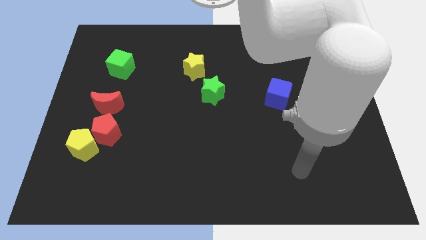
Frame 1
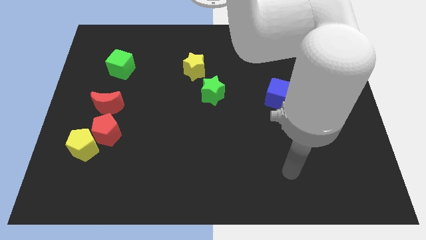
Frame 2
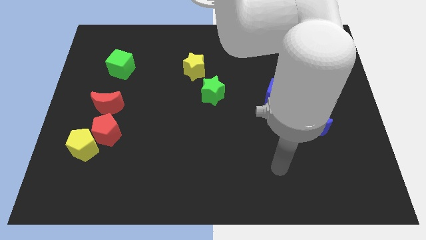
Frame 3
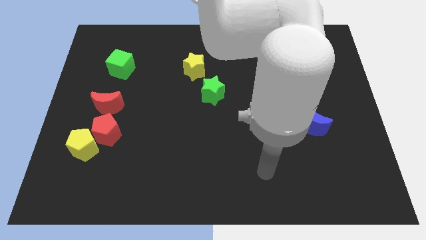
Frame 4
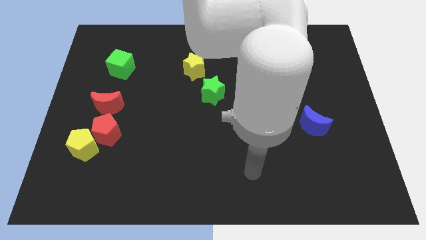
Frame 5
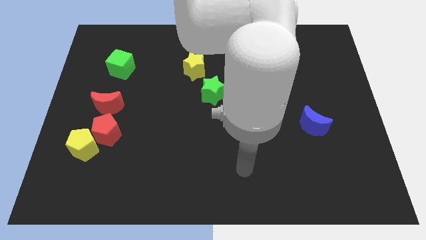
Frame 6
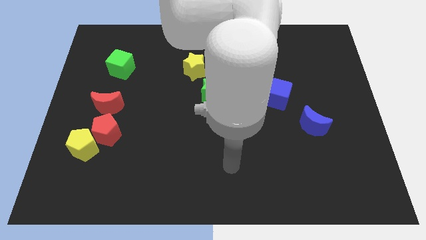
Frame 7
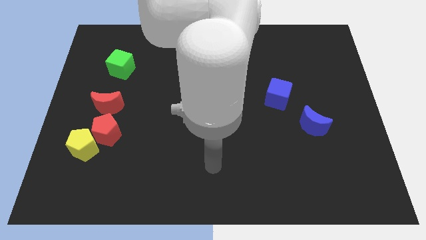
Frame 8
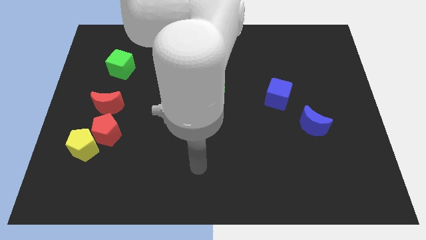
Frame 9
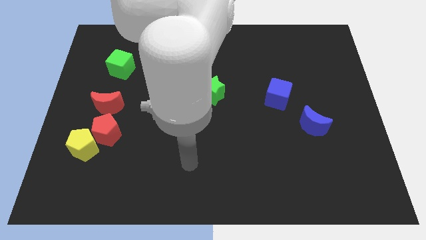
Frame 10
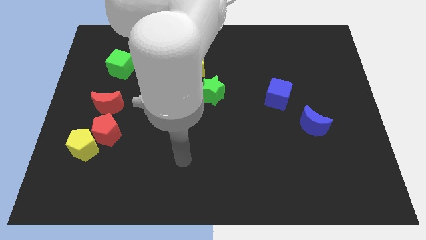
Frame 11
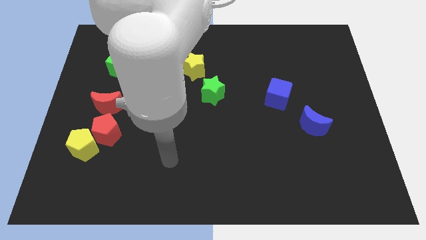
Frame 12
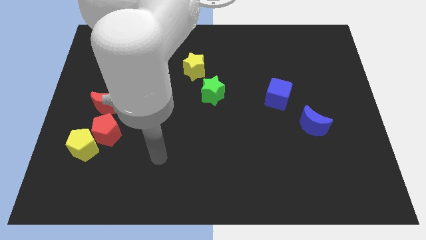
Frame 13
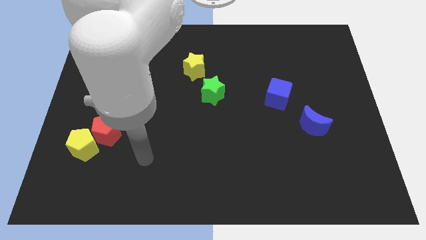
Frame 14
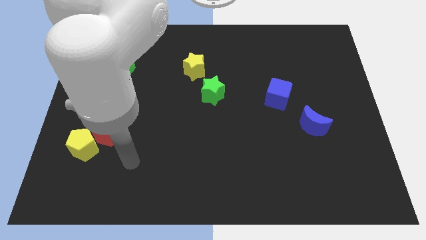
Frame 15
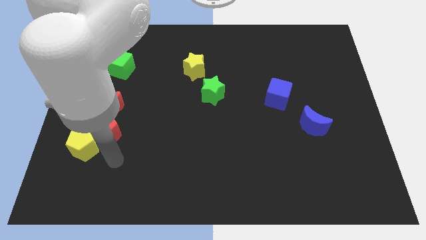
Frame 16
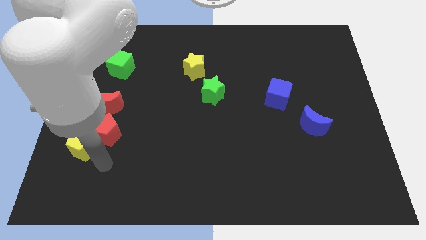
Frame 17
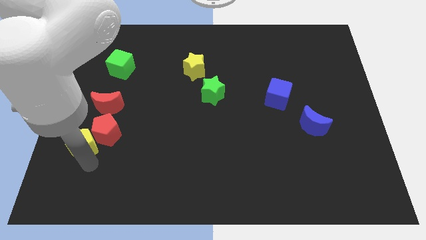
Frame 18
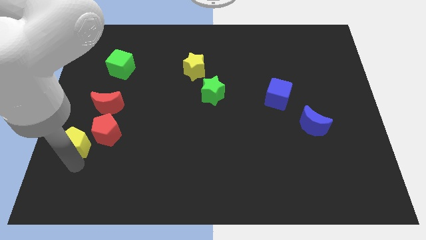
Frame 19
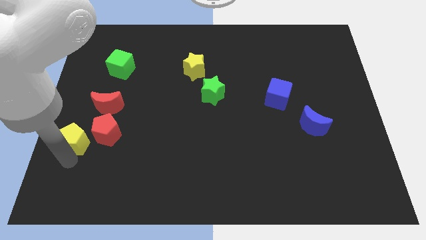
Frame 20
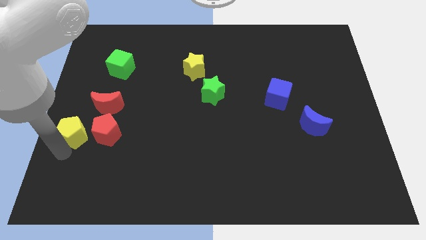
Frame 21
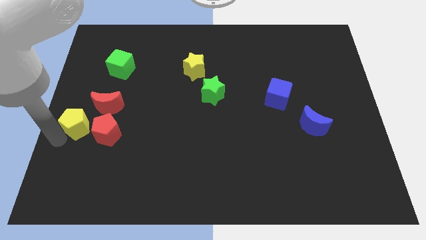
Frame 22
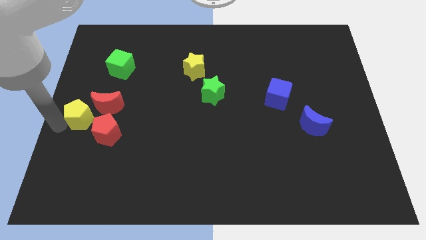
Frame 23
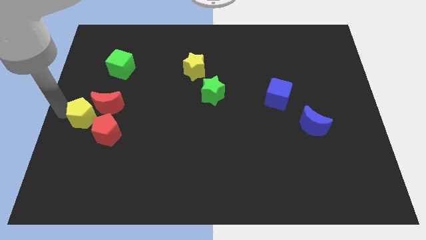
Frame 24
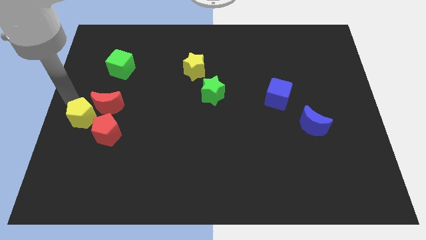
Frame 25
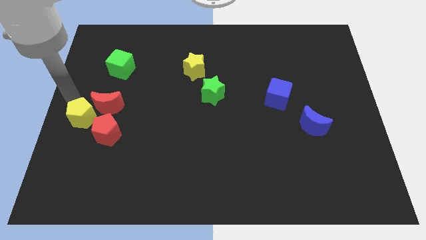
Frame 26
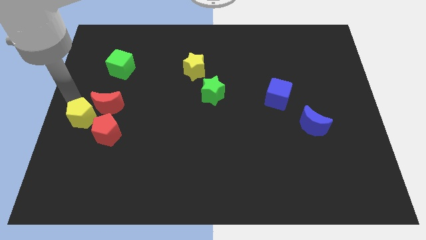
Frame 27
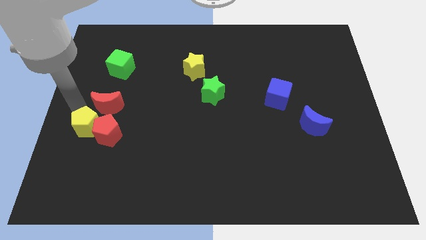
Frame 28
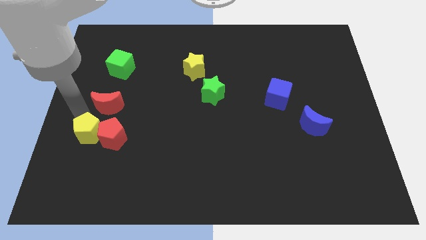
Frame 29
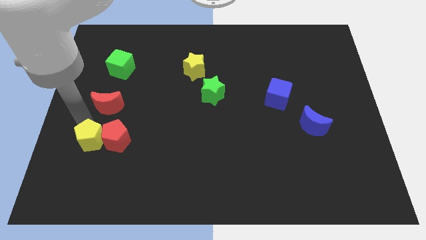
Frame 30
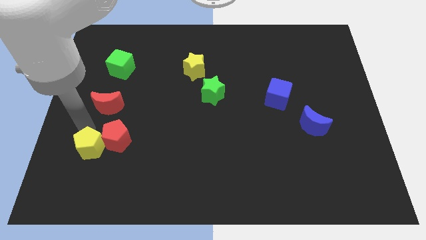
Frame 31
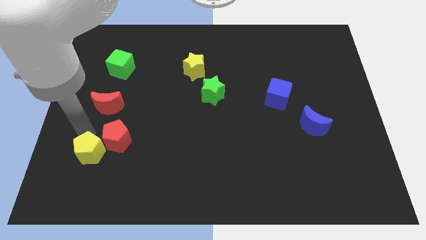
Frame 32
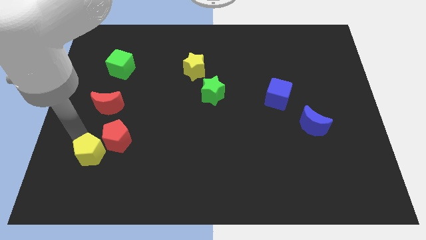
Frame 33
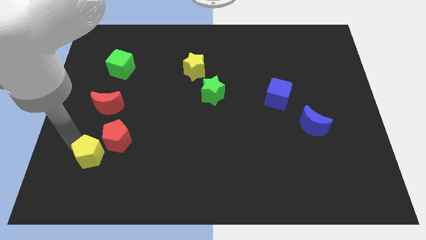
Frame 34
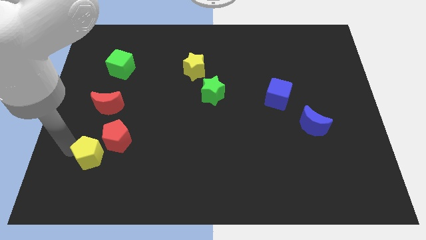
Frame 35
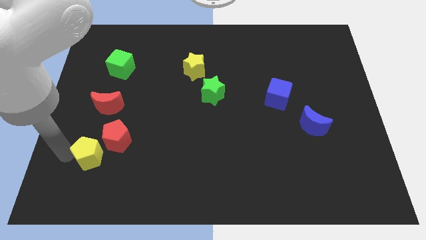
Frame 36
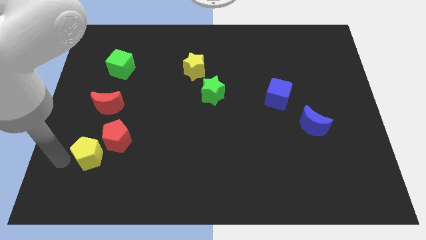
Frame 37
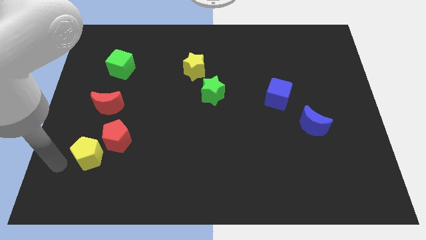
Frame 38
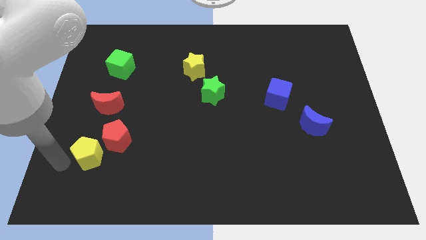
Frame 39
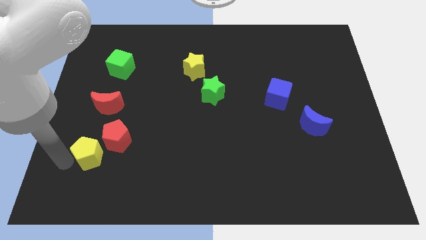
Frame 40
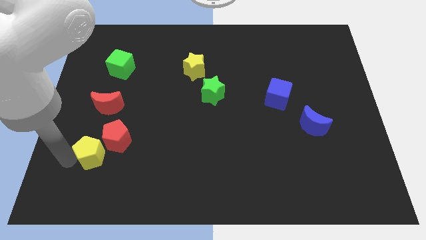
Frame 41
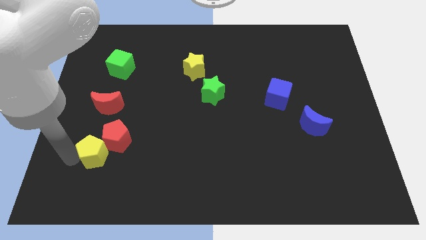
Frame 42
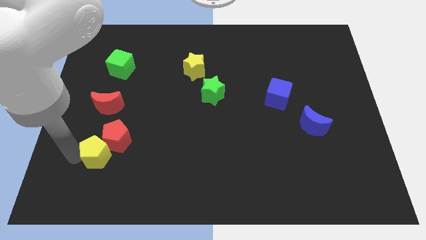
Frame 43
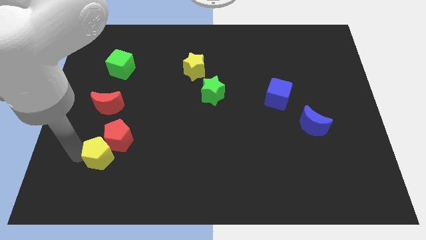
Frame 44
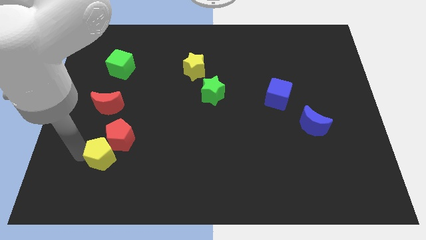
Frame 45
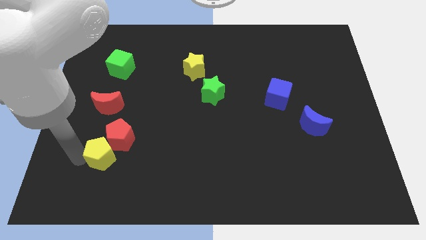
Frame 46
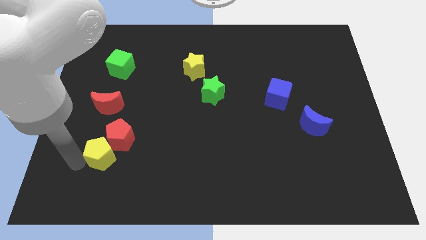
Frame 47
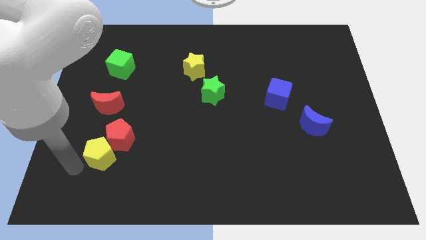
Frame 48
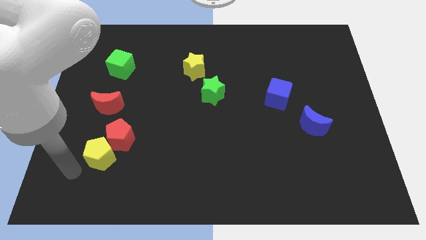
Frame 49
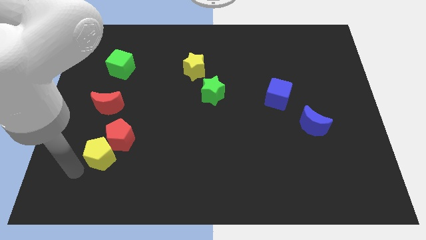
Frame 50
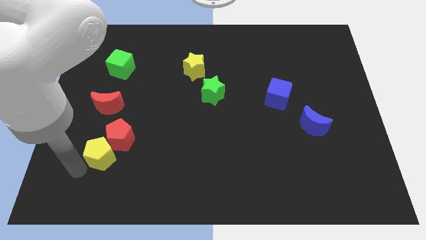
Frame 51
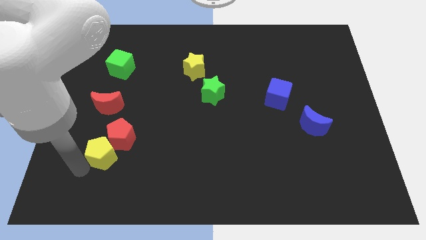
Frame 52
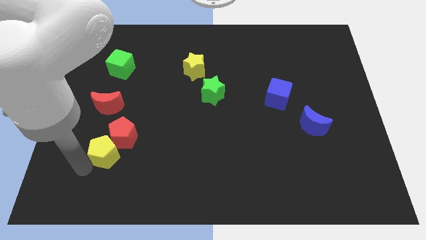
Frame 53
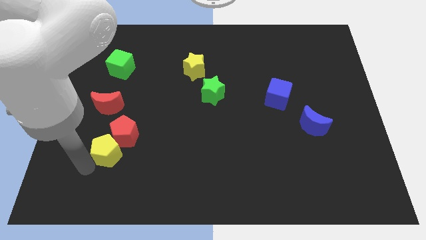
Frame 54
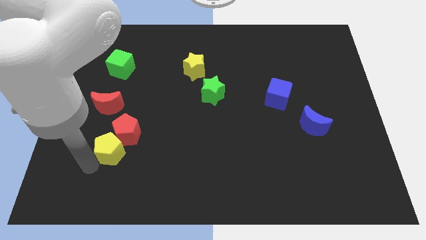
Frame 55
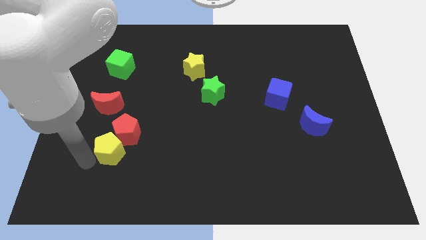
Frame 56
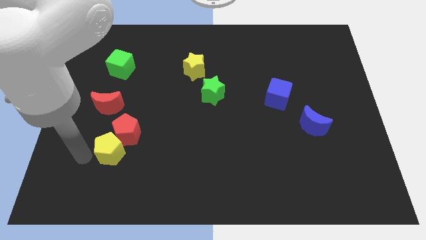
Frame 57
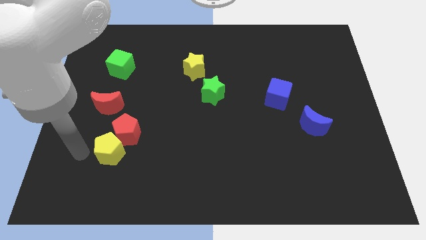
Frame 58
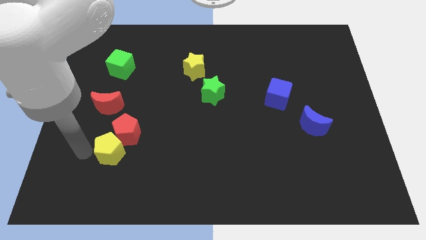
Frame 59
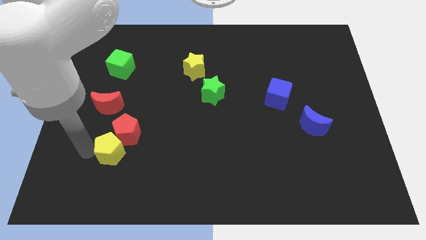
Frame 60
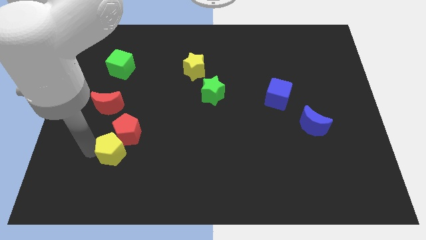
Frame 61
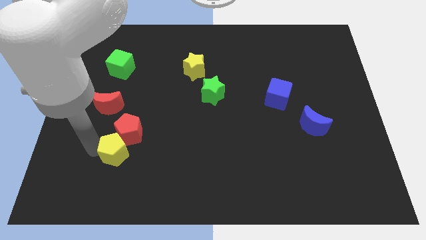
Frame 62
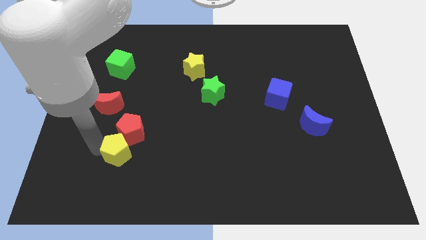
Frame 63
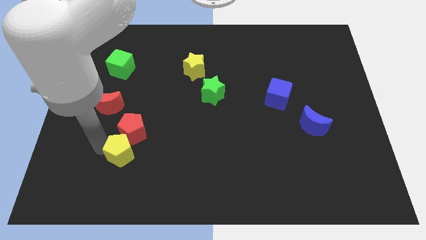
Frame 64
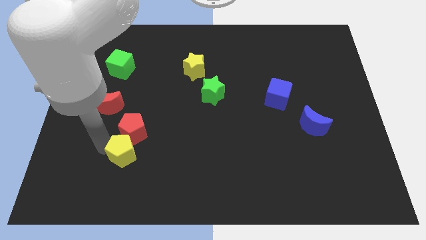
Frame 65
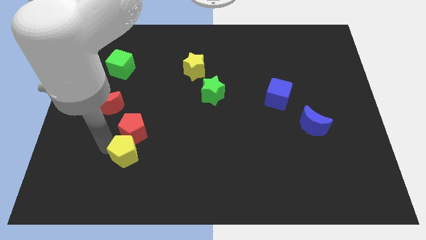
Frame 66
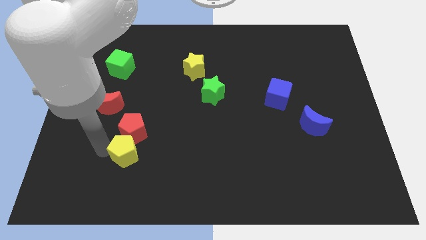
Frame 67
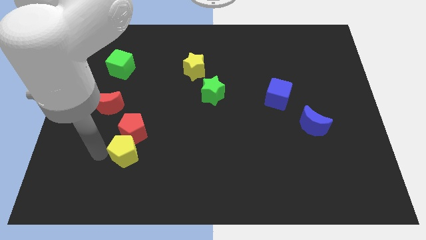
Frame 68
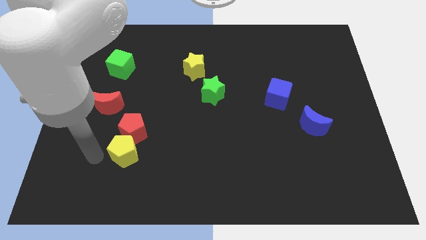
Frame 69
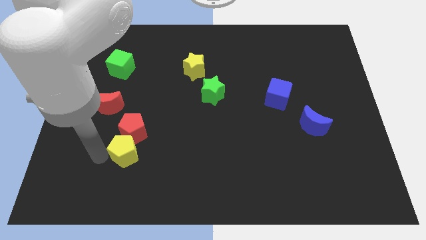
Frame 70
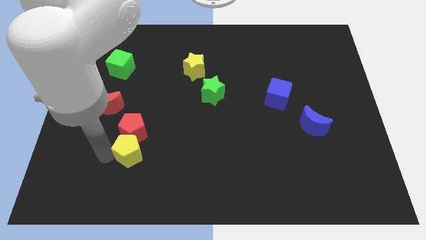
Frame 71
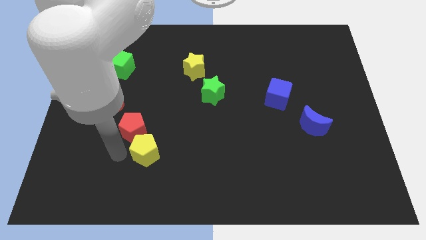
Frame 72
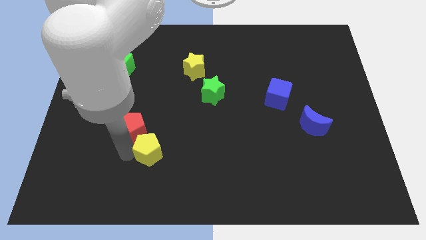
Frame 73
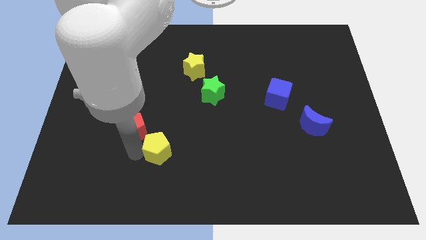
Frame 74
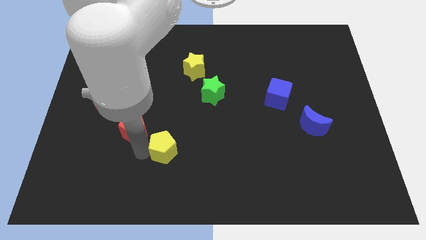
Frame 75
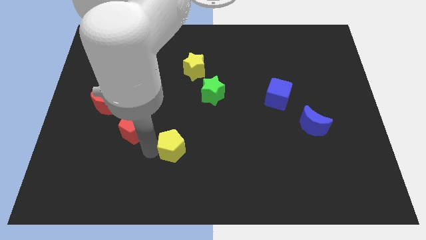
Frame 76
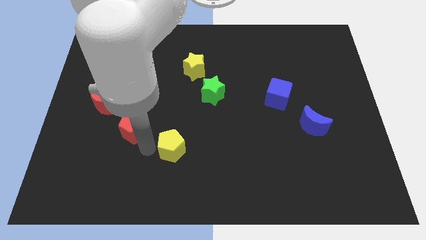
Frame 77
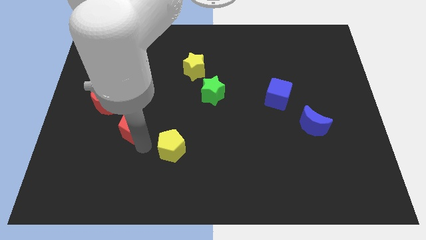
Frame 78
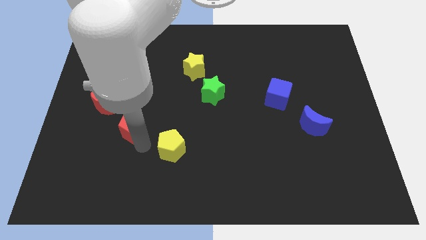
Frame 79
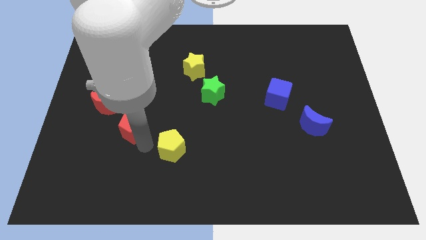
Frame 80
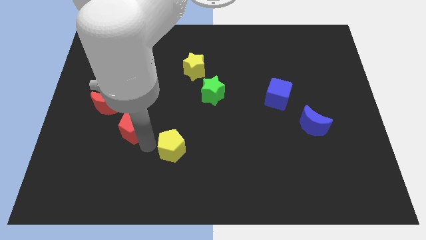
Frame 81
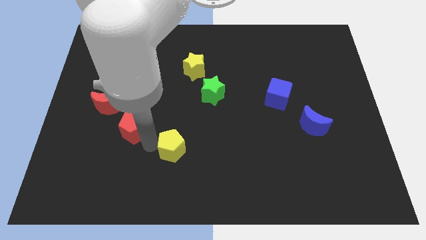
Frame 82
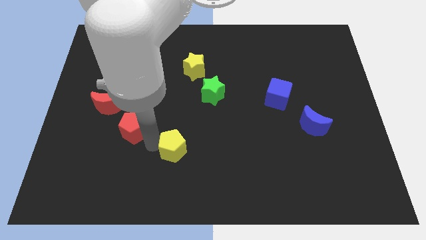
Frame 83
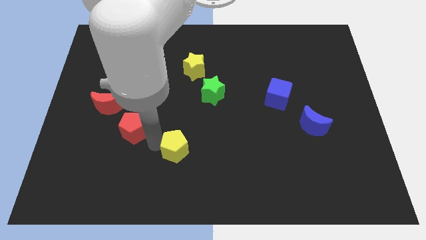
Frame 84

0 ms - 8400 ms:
move the yellow pentagon right
